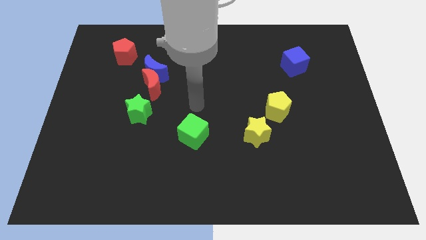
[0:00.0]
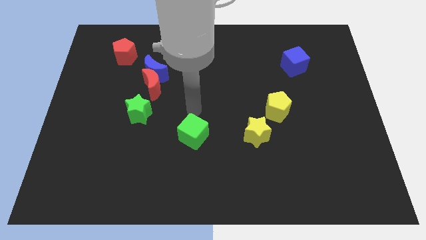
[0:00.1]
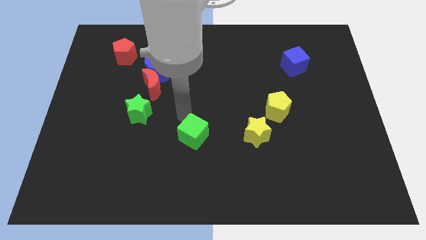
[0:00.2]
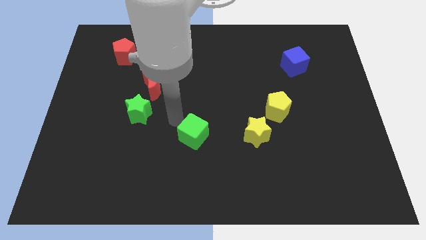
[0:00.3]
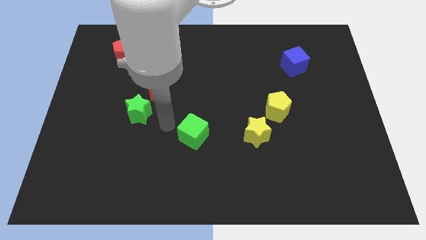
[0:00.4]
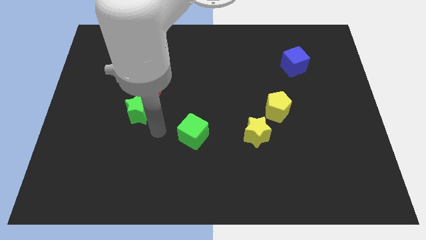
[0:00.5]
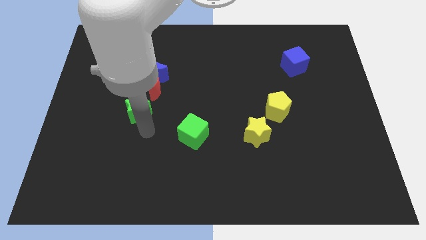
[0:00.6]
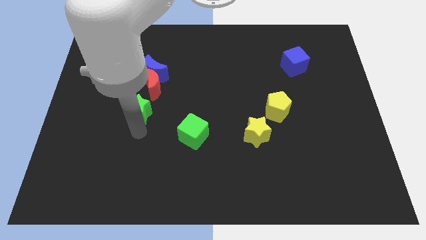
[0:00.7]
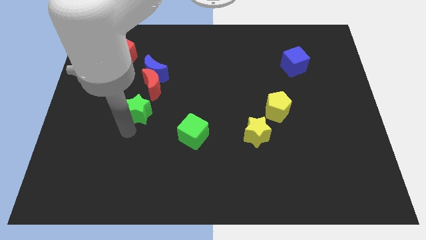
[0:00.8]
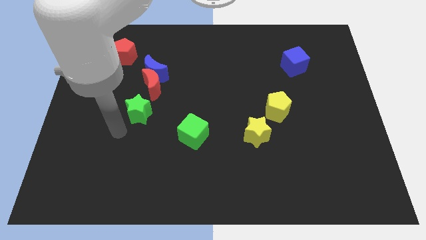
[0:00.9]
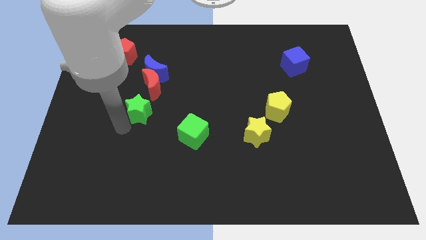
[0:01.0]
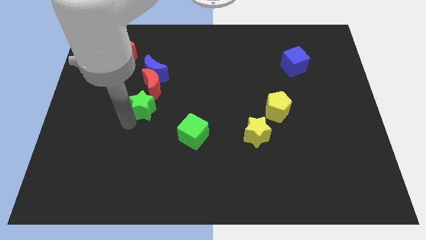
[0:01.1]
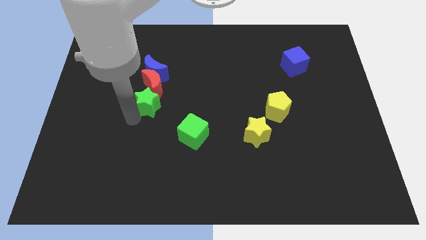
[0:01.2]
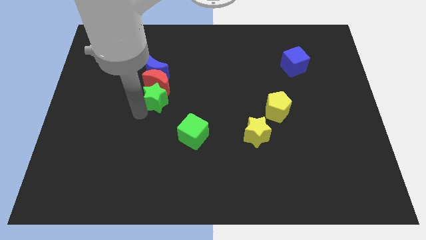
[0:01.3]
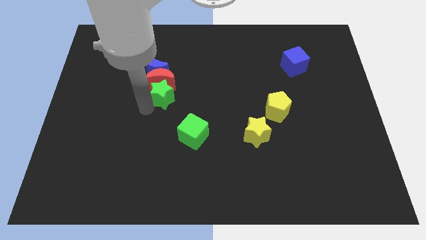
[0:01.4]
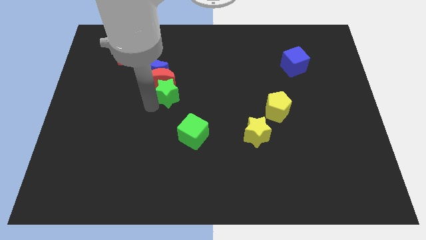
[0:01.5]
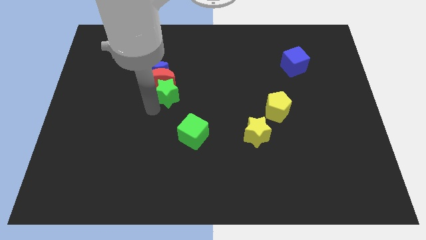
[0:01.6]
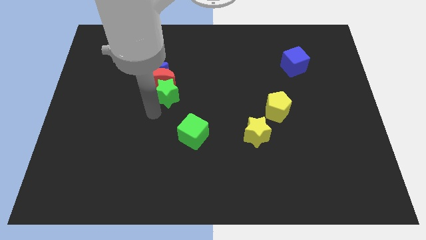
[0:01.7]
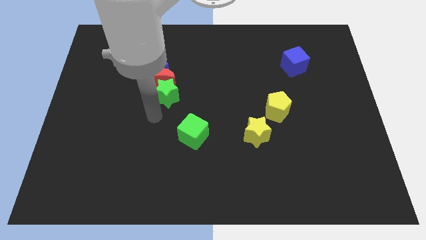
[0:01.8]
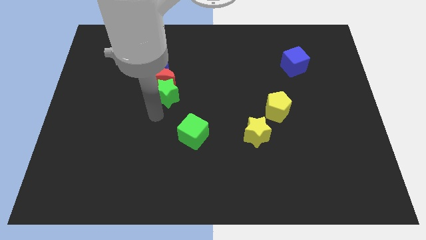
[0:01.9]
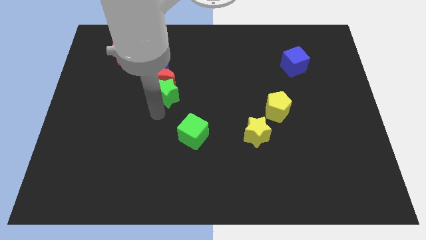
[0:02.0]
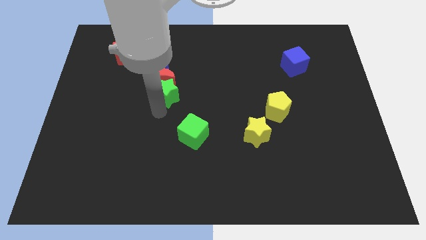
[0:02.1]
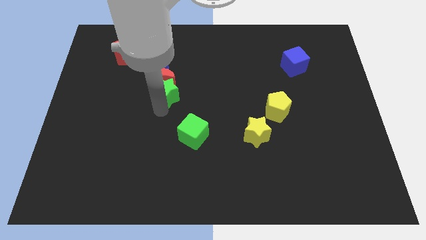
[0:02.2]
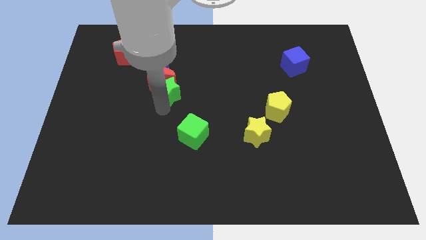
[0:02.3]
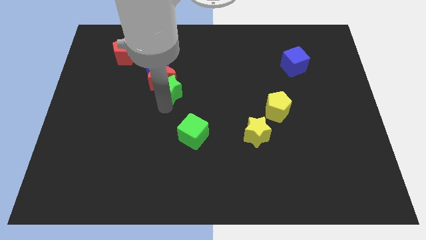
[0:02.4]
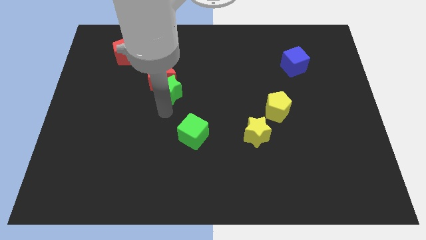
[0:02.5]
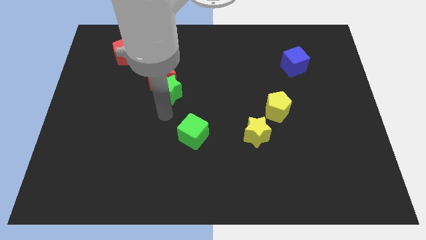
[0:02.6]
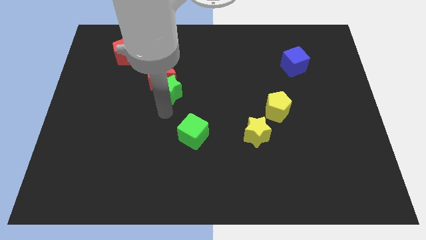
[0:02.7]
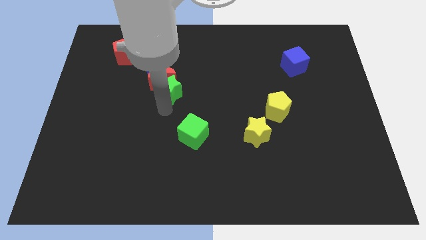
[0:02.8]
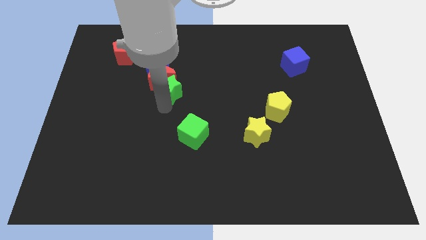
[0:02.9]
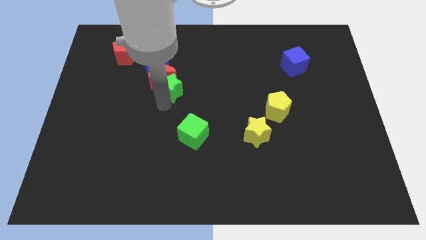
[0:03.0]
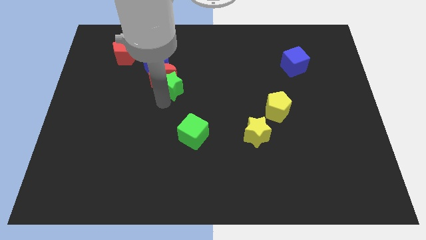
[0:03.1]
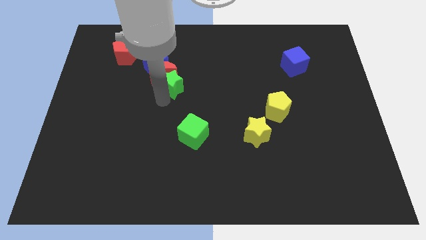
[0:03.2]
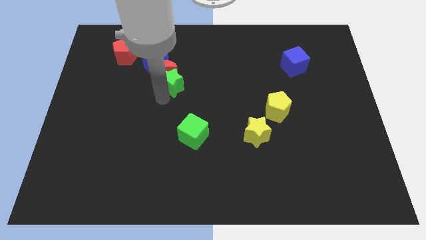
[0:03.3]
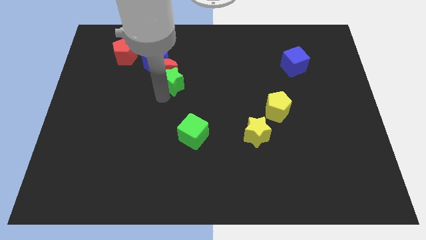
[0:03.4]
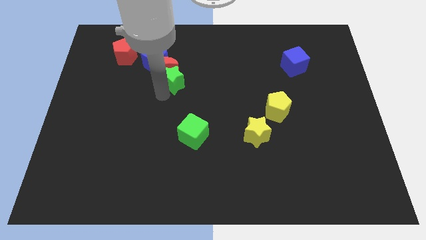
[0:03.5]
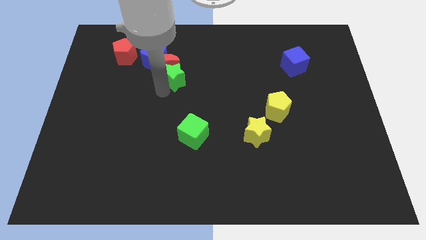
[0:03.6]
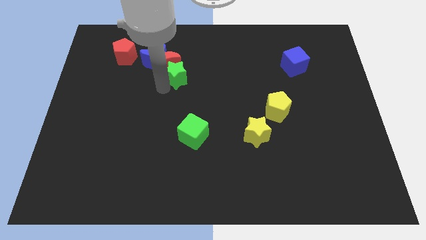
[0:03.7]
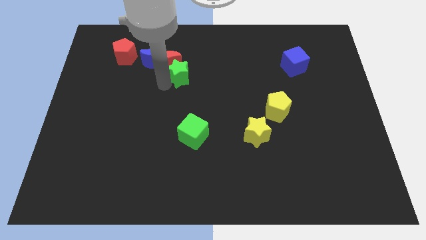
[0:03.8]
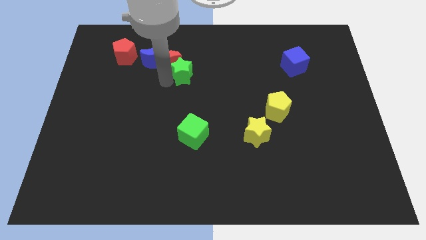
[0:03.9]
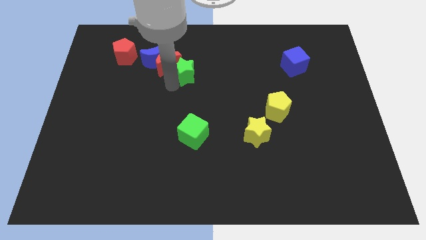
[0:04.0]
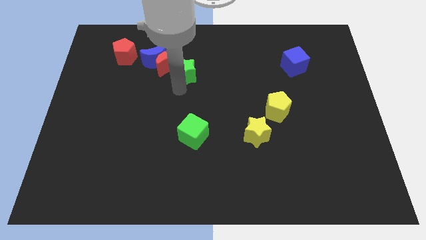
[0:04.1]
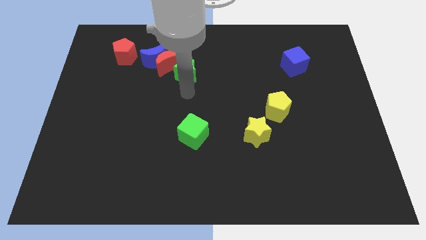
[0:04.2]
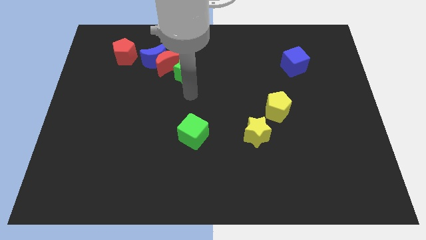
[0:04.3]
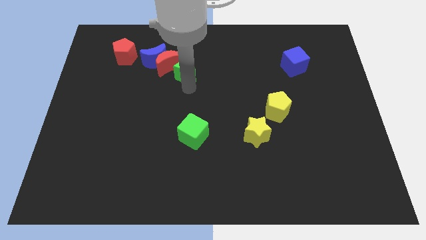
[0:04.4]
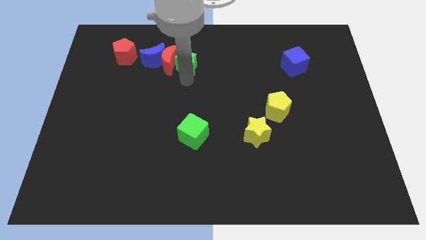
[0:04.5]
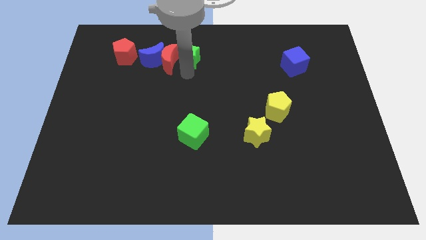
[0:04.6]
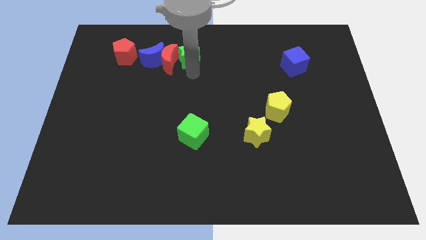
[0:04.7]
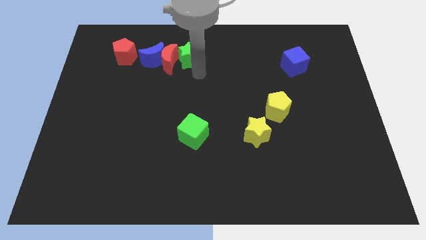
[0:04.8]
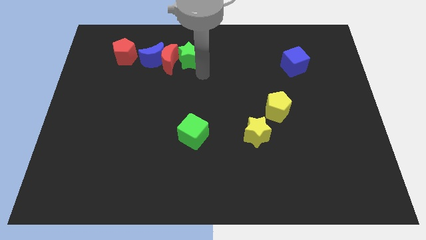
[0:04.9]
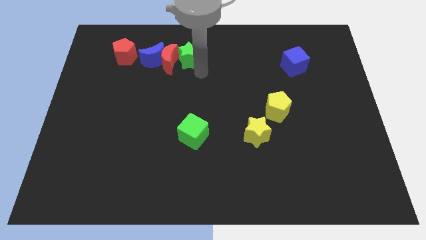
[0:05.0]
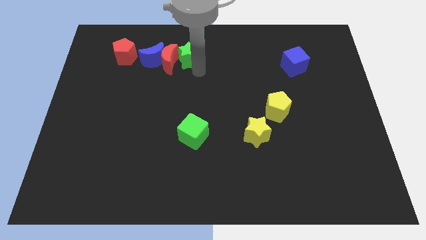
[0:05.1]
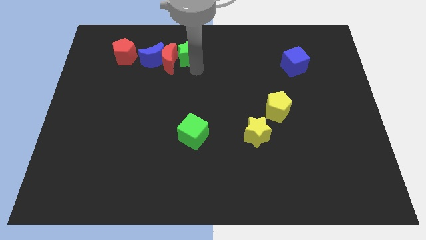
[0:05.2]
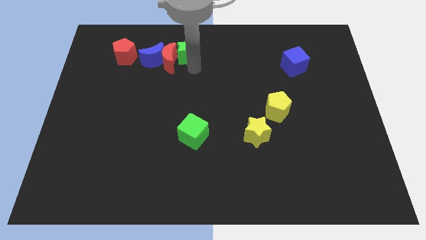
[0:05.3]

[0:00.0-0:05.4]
slide the green star to the top right of the blue moon

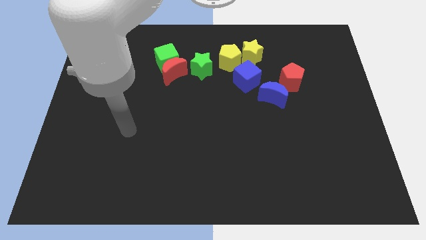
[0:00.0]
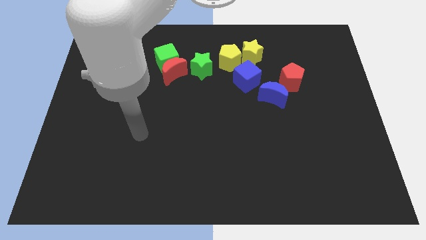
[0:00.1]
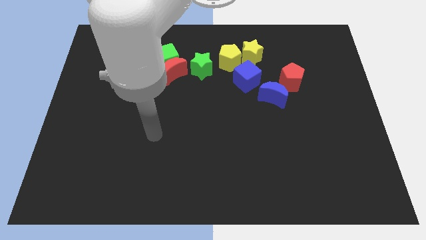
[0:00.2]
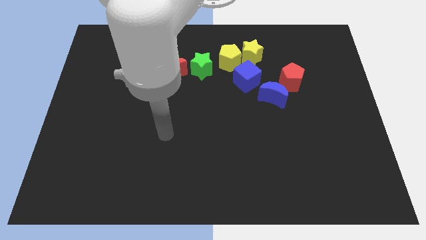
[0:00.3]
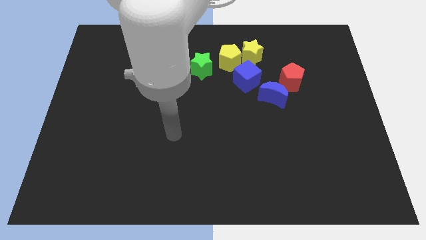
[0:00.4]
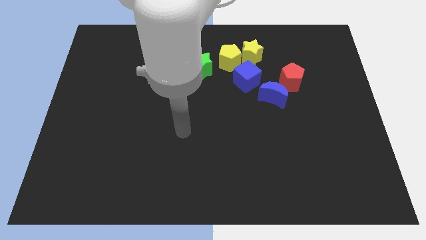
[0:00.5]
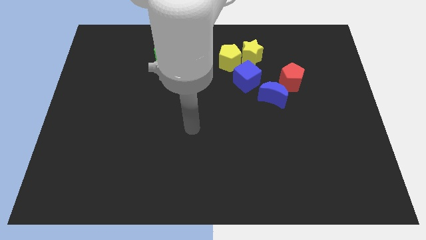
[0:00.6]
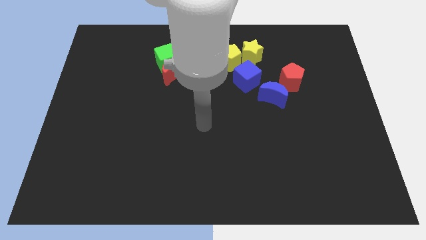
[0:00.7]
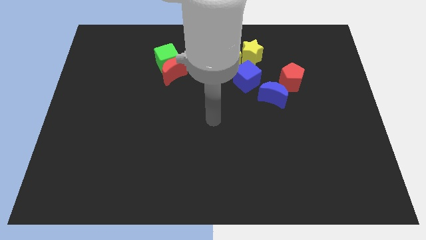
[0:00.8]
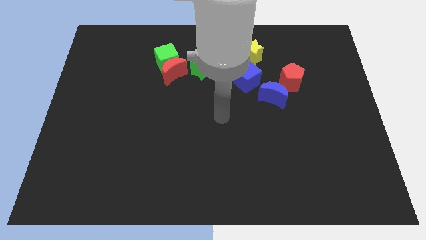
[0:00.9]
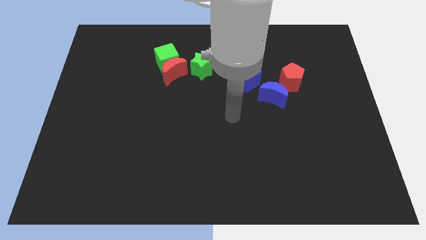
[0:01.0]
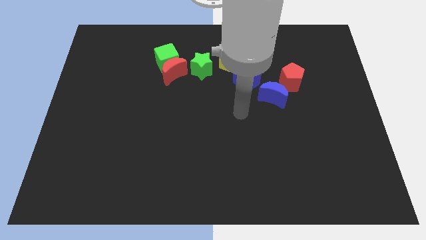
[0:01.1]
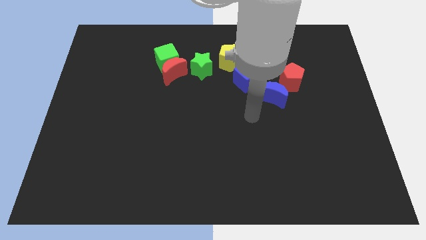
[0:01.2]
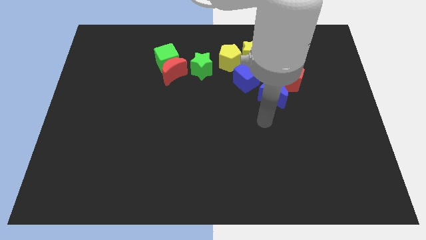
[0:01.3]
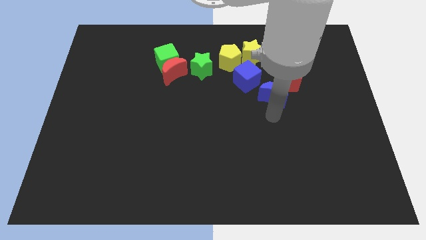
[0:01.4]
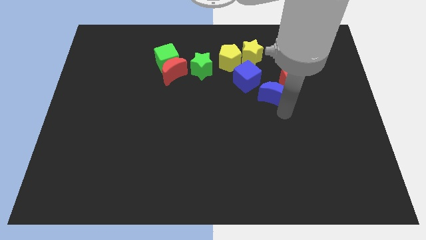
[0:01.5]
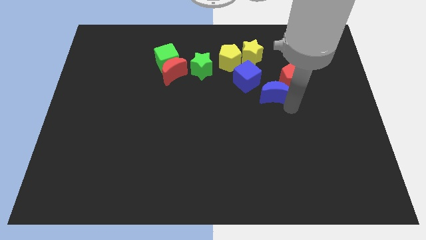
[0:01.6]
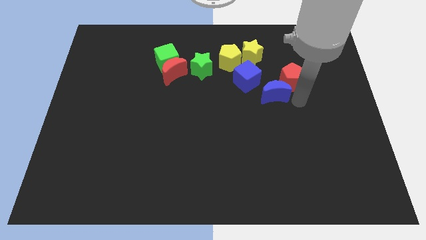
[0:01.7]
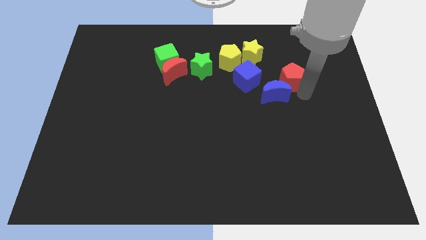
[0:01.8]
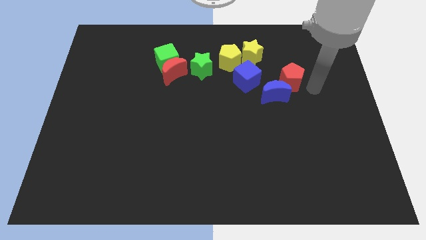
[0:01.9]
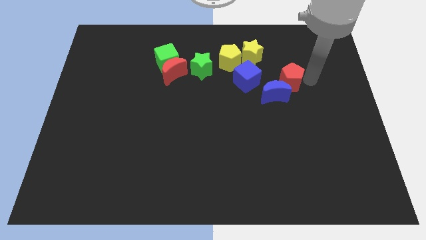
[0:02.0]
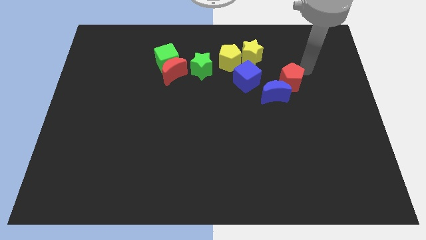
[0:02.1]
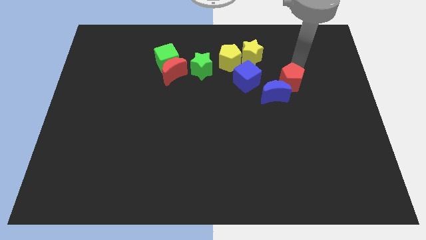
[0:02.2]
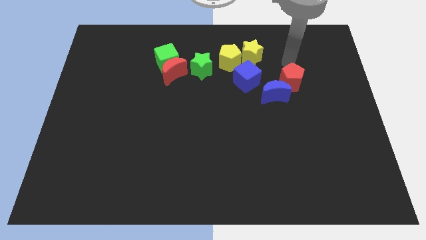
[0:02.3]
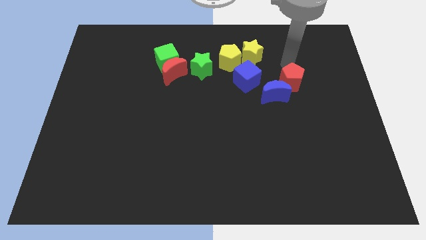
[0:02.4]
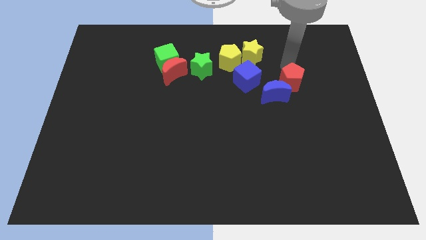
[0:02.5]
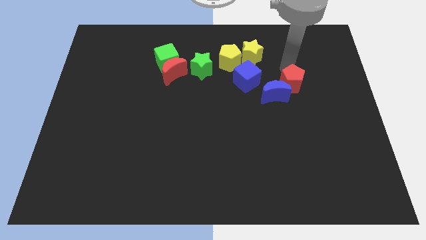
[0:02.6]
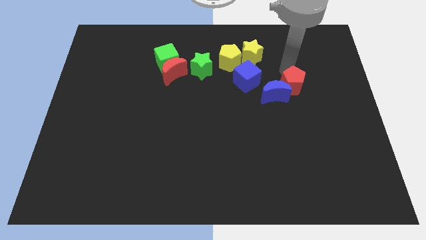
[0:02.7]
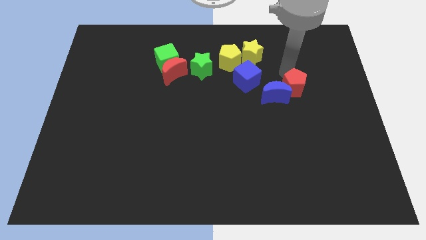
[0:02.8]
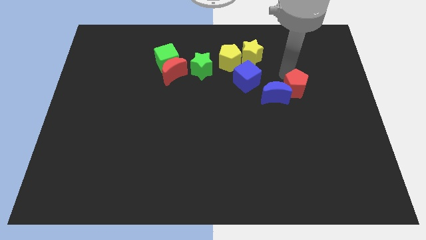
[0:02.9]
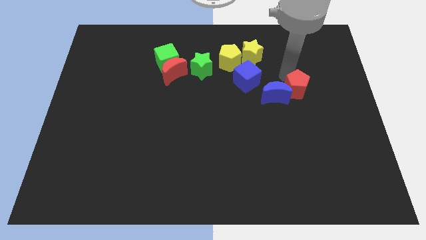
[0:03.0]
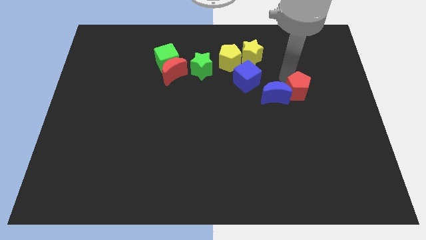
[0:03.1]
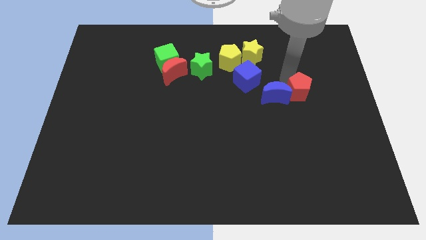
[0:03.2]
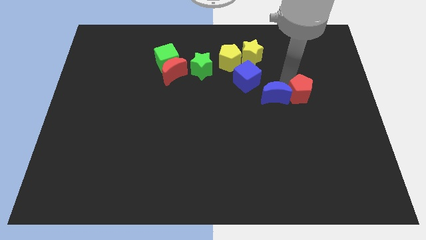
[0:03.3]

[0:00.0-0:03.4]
slide the red pentagon diagonally down and to the right of the blue moon
